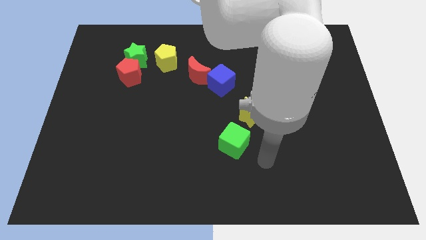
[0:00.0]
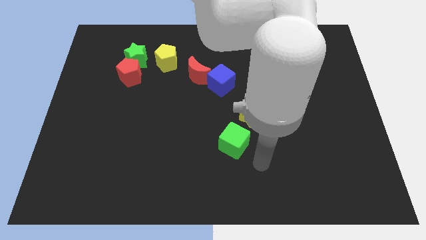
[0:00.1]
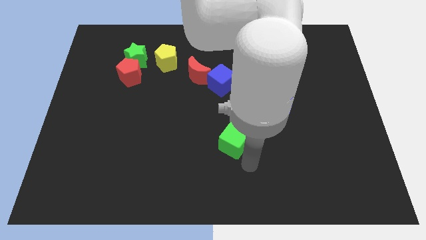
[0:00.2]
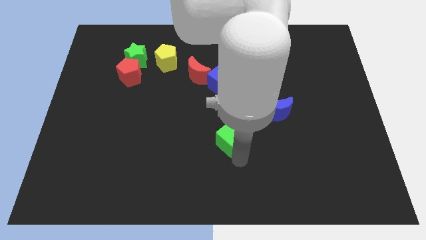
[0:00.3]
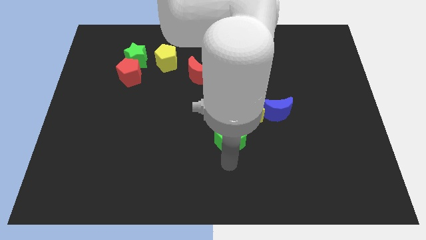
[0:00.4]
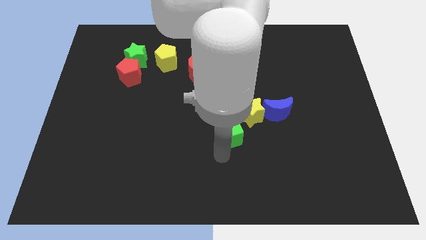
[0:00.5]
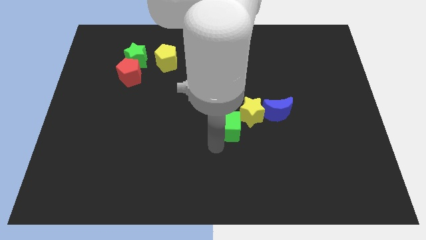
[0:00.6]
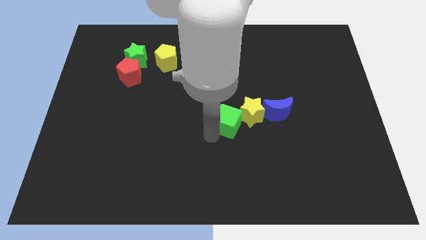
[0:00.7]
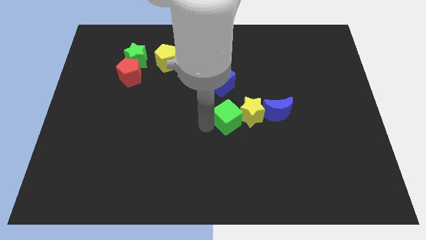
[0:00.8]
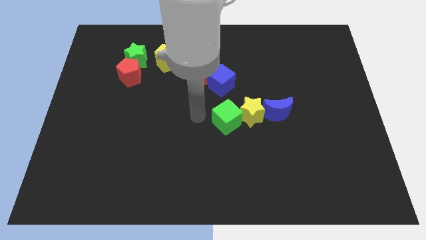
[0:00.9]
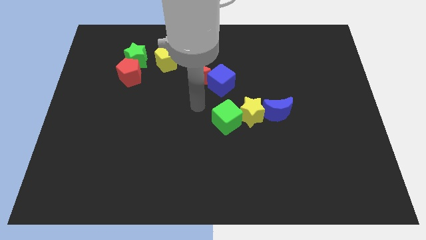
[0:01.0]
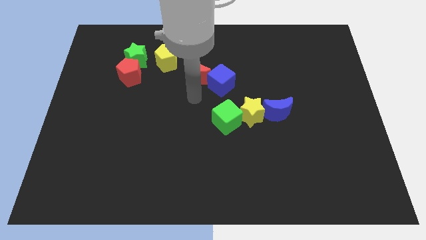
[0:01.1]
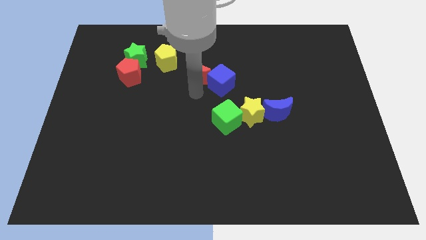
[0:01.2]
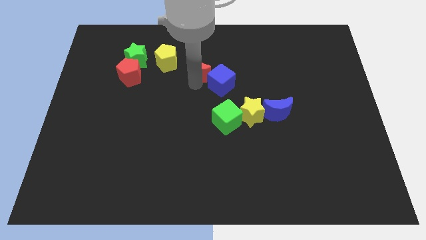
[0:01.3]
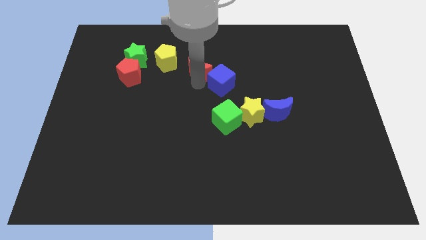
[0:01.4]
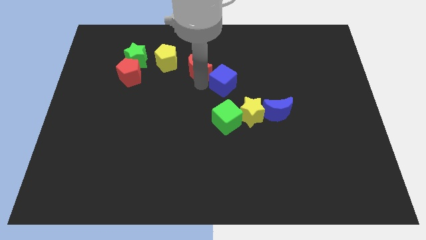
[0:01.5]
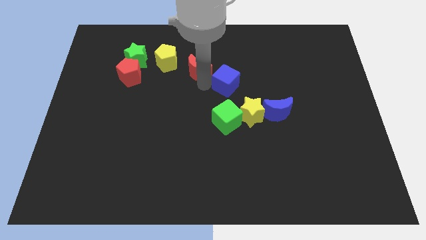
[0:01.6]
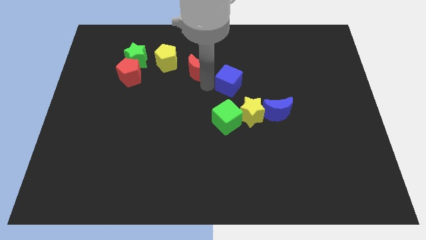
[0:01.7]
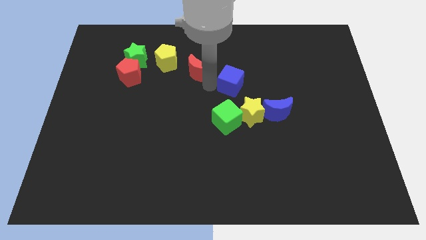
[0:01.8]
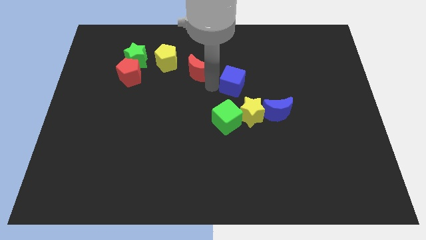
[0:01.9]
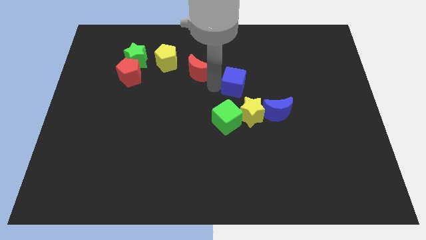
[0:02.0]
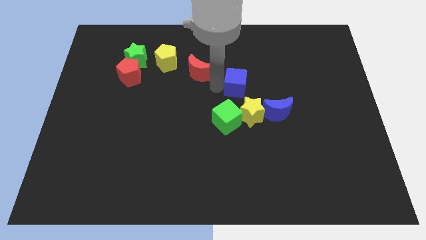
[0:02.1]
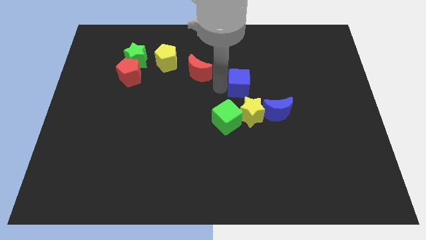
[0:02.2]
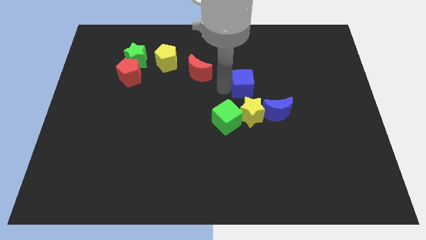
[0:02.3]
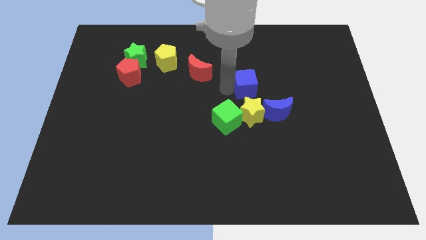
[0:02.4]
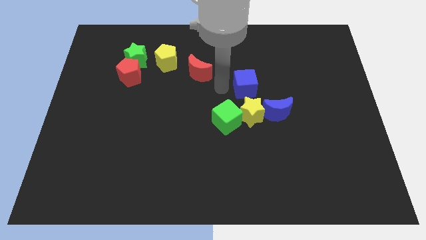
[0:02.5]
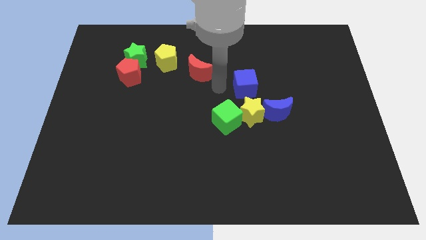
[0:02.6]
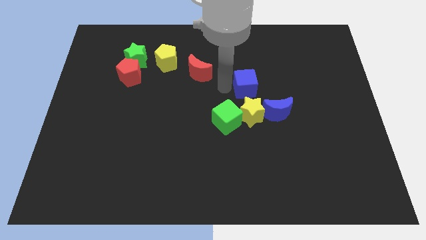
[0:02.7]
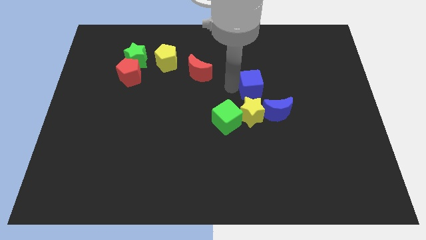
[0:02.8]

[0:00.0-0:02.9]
move the blue cube somewhat to the right

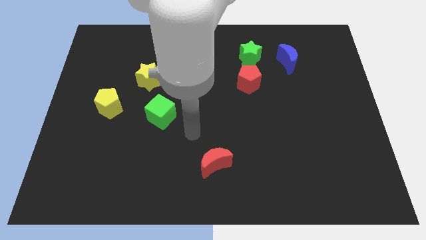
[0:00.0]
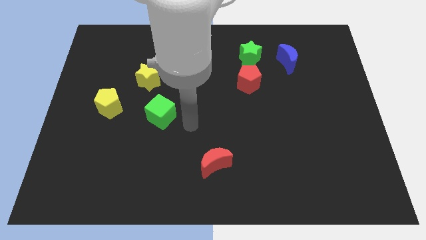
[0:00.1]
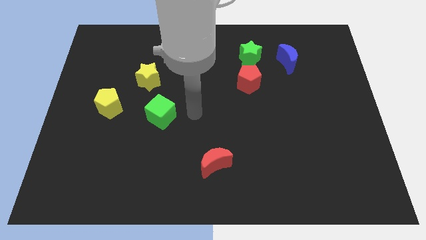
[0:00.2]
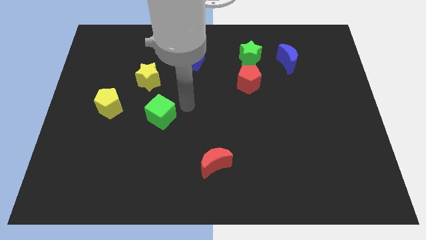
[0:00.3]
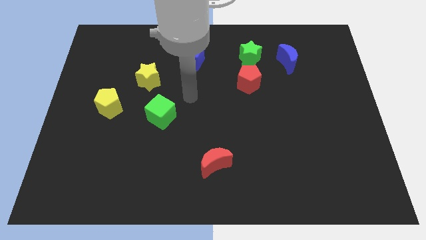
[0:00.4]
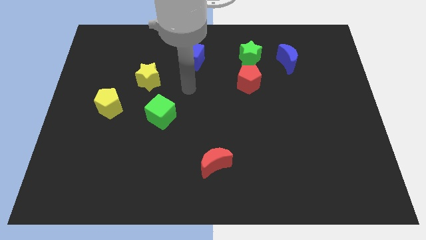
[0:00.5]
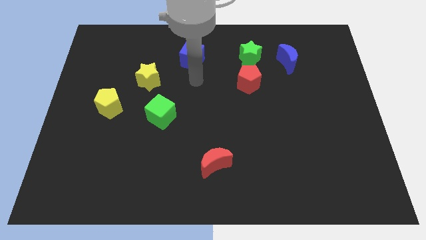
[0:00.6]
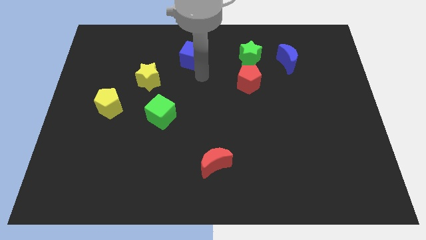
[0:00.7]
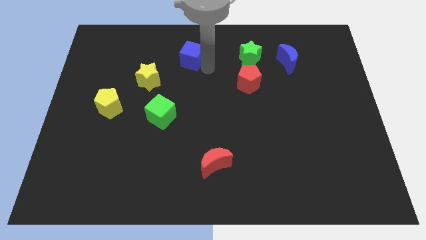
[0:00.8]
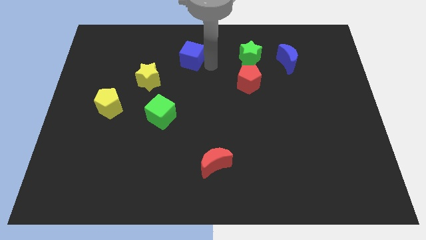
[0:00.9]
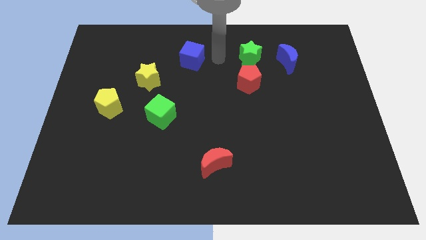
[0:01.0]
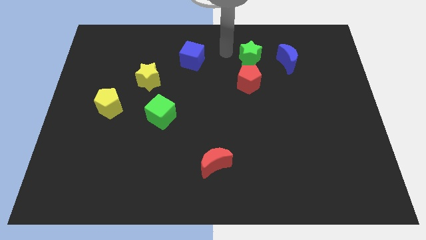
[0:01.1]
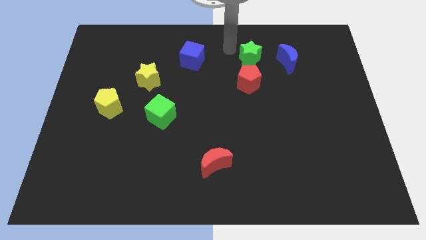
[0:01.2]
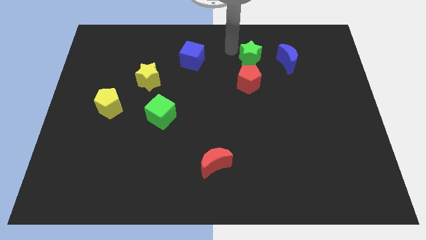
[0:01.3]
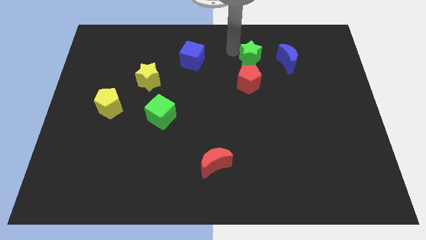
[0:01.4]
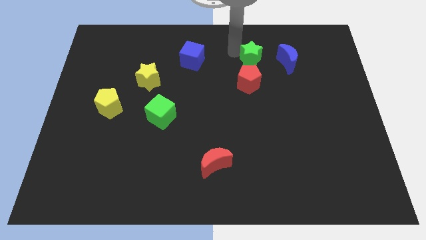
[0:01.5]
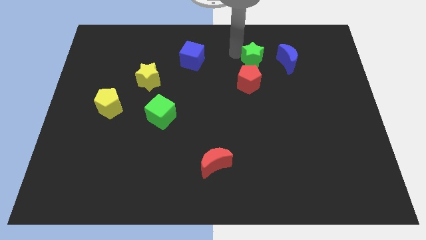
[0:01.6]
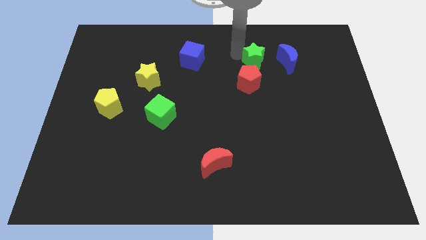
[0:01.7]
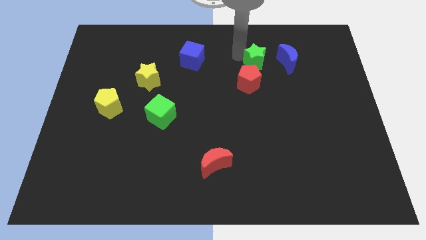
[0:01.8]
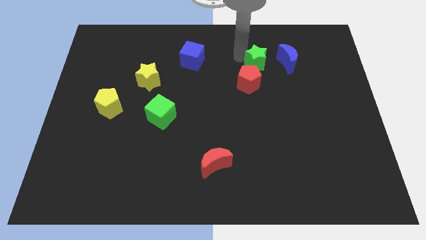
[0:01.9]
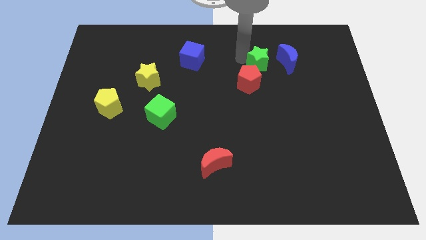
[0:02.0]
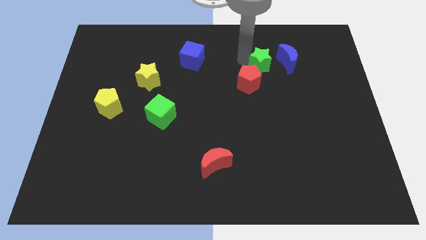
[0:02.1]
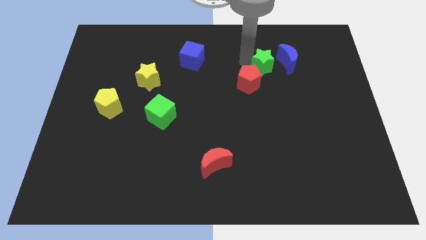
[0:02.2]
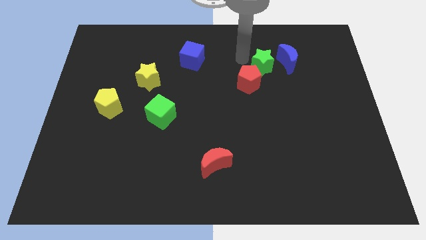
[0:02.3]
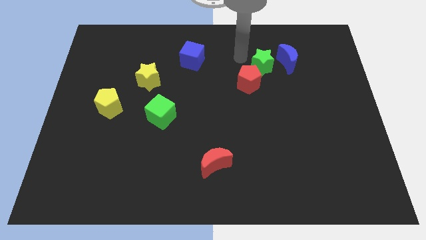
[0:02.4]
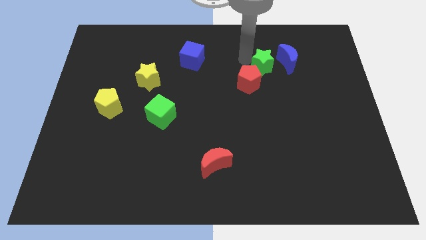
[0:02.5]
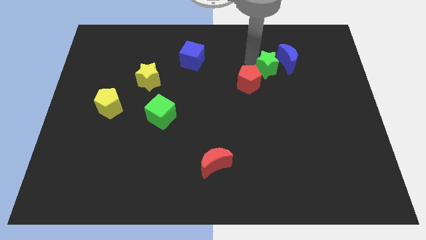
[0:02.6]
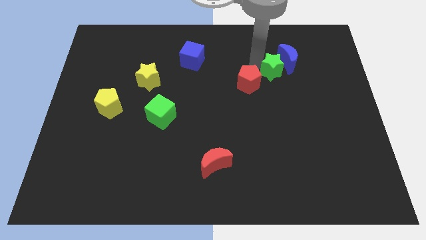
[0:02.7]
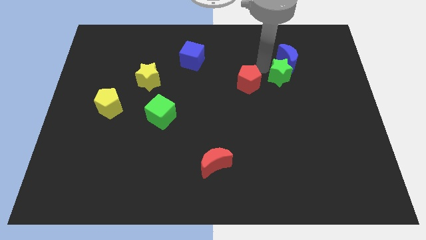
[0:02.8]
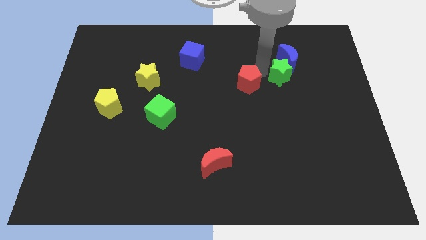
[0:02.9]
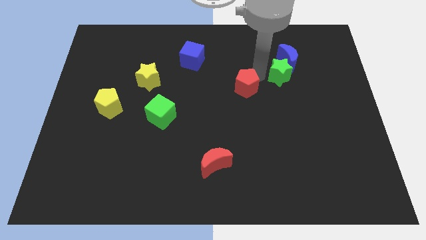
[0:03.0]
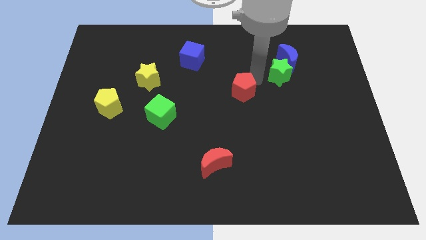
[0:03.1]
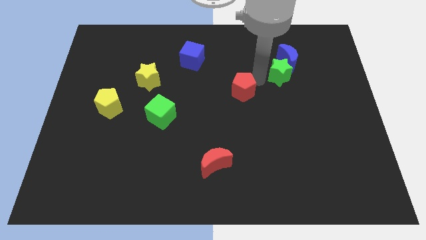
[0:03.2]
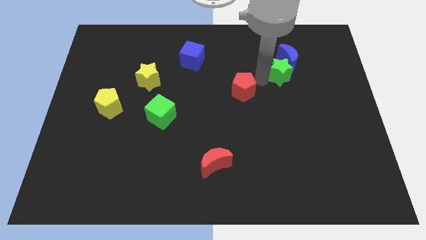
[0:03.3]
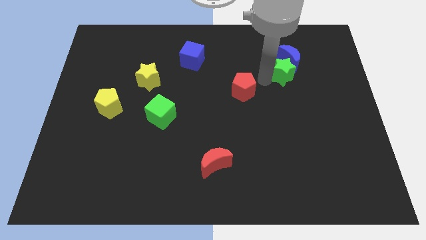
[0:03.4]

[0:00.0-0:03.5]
slightly push the green star to the right

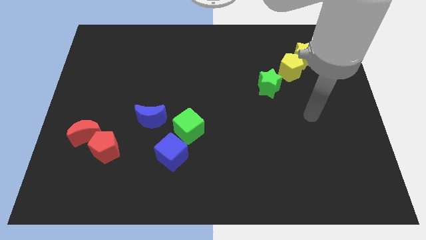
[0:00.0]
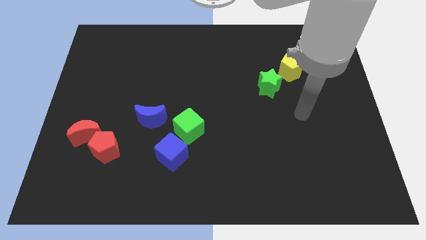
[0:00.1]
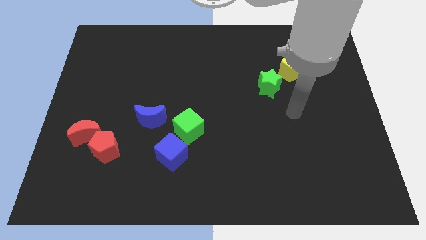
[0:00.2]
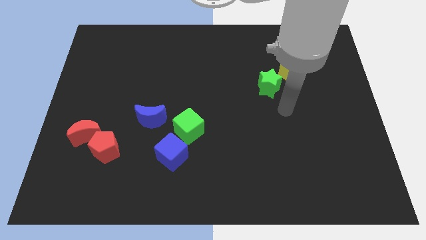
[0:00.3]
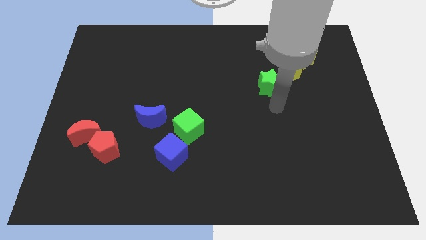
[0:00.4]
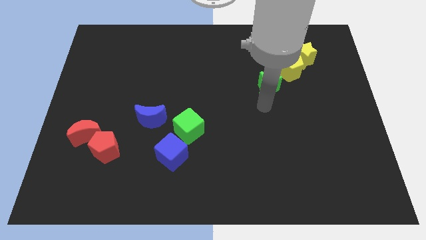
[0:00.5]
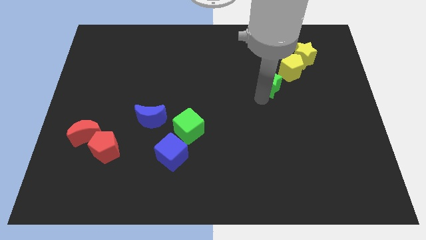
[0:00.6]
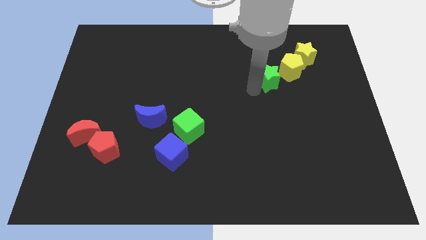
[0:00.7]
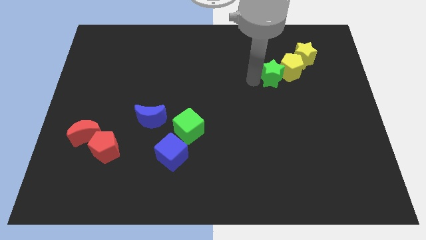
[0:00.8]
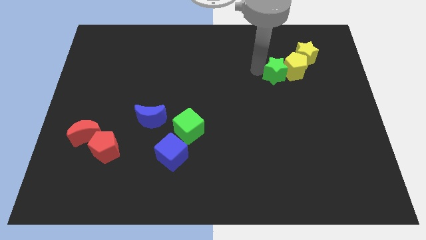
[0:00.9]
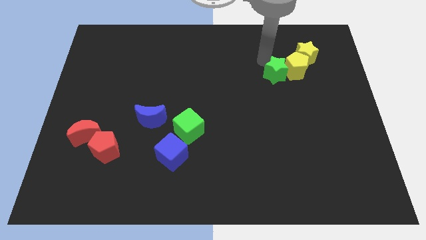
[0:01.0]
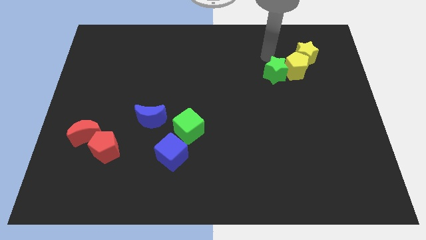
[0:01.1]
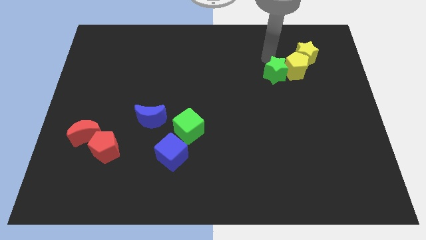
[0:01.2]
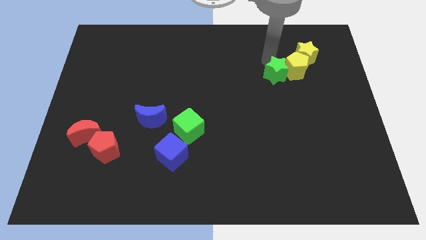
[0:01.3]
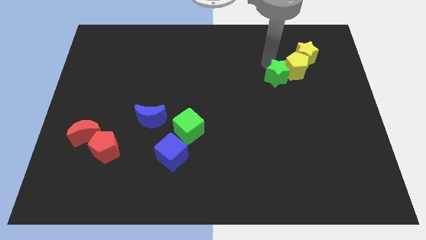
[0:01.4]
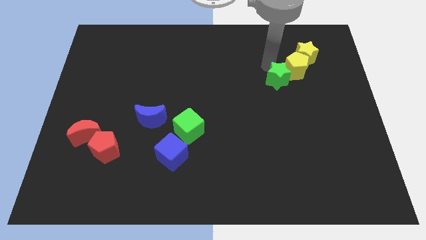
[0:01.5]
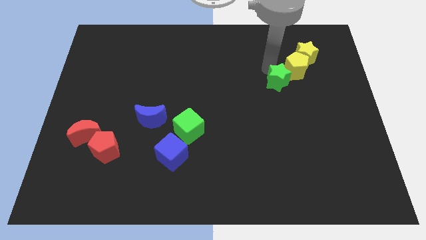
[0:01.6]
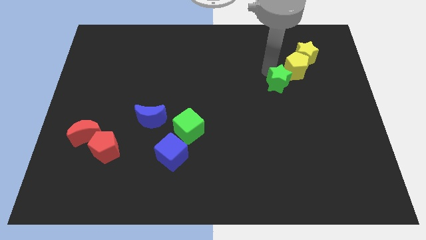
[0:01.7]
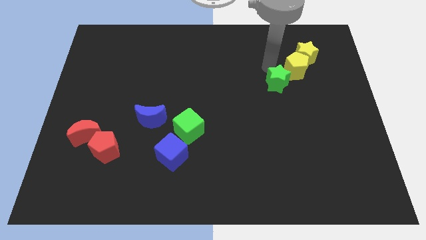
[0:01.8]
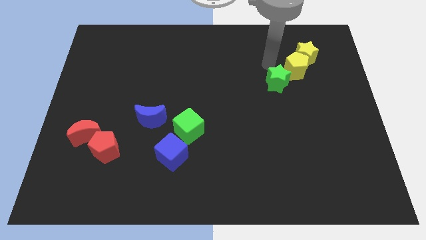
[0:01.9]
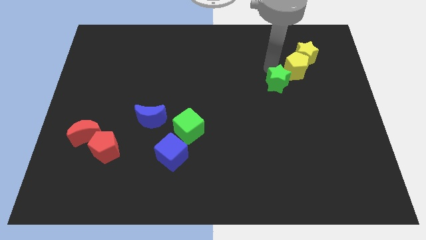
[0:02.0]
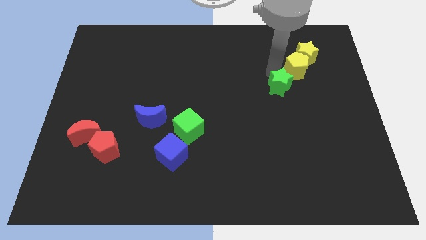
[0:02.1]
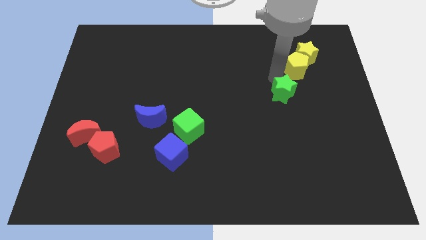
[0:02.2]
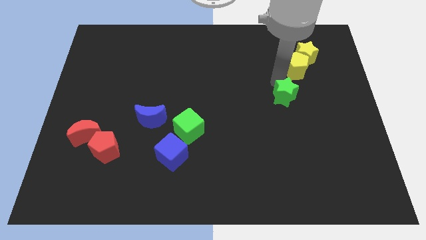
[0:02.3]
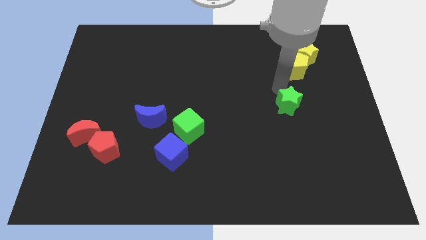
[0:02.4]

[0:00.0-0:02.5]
push the green star a bit diagonally downwards and right
